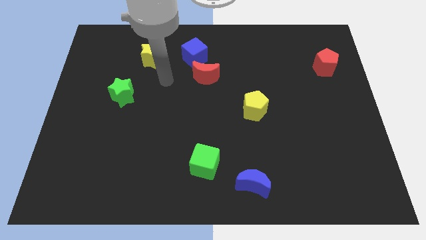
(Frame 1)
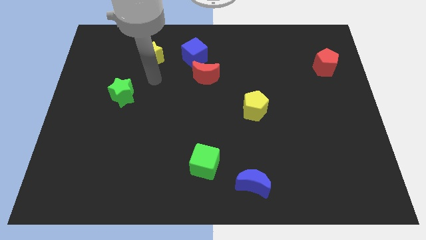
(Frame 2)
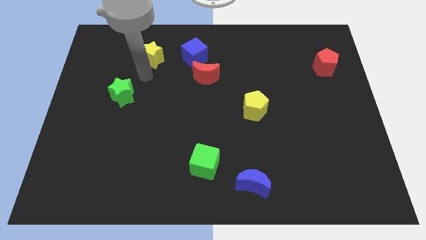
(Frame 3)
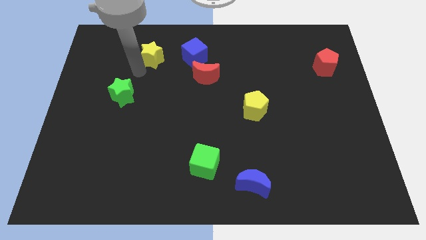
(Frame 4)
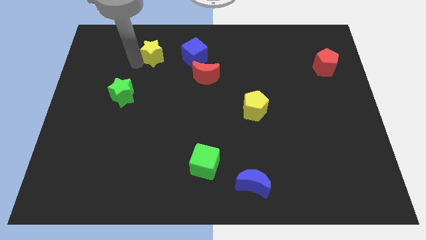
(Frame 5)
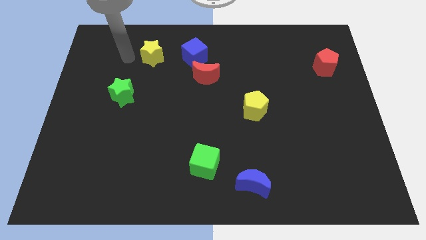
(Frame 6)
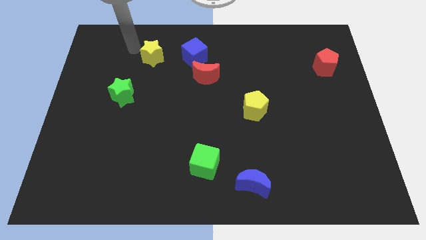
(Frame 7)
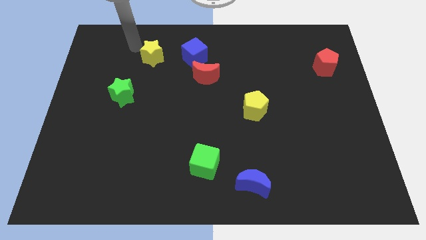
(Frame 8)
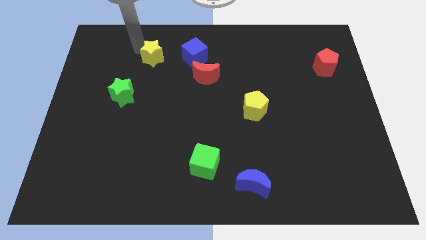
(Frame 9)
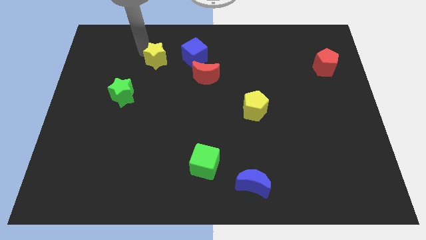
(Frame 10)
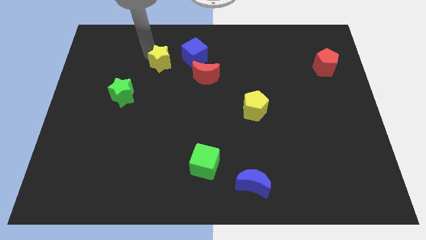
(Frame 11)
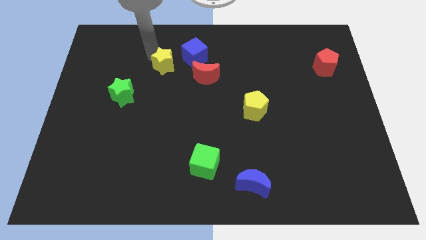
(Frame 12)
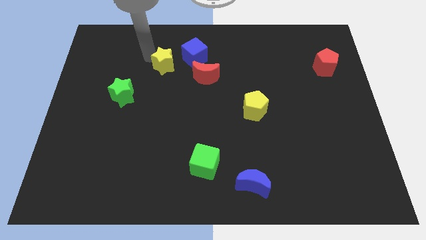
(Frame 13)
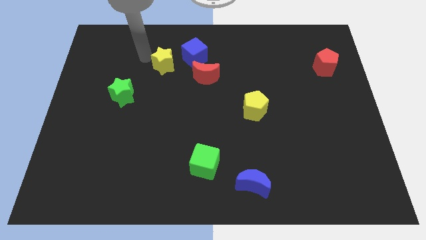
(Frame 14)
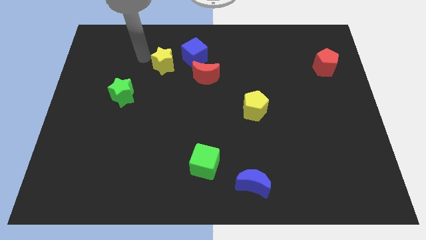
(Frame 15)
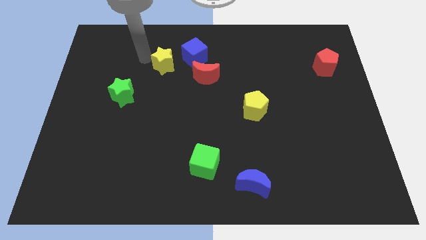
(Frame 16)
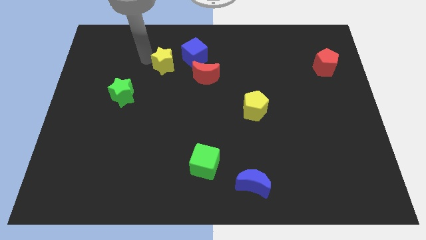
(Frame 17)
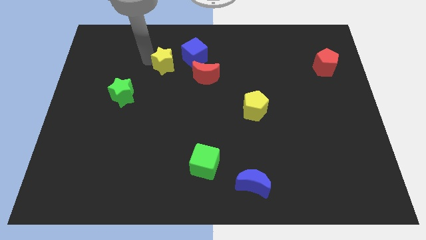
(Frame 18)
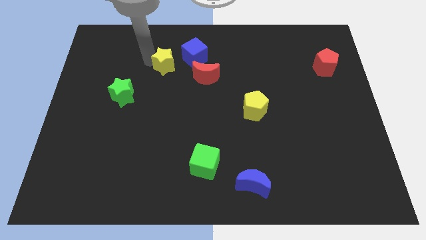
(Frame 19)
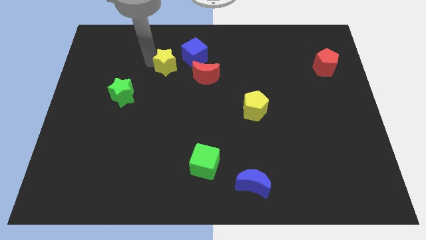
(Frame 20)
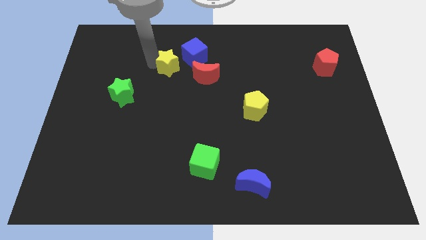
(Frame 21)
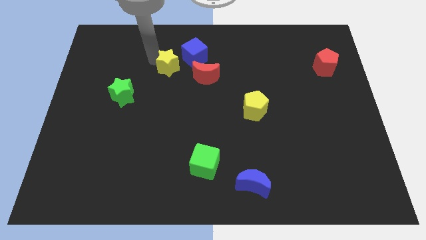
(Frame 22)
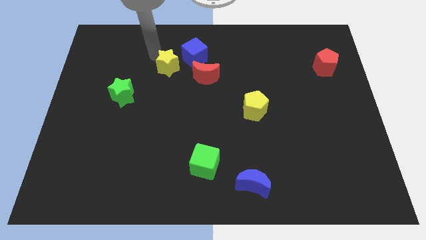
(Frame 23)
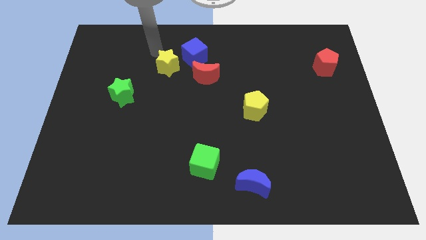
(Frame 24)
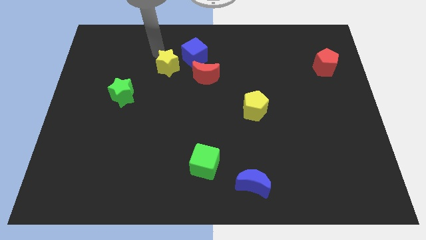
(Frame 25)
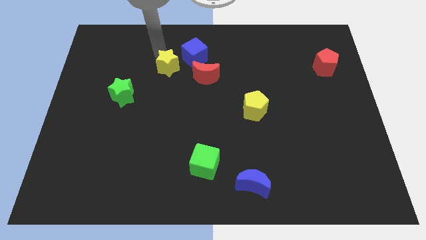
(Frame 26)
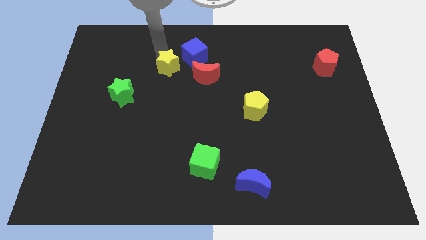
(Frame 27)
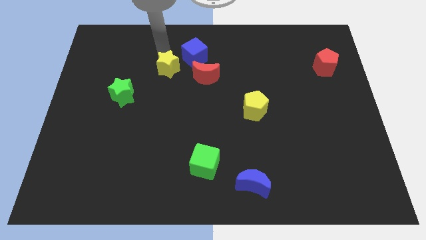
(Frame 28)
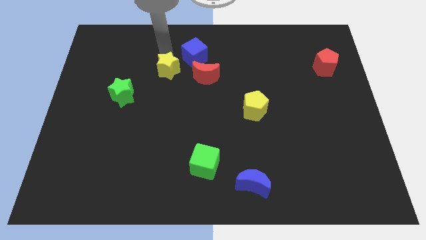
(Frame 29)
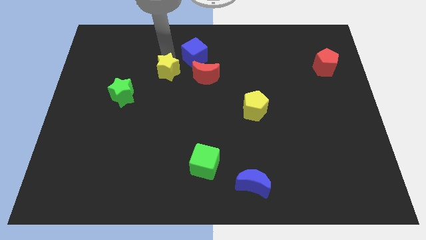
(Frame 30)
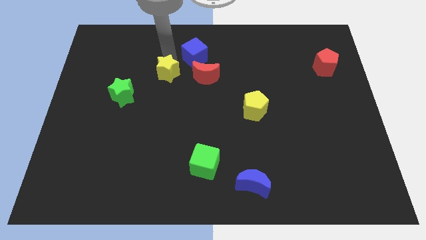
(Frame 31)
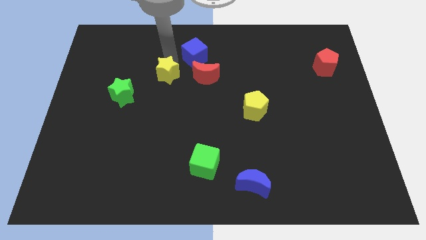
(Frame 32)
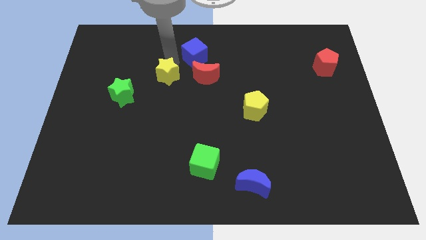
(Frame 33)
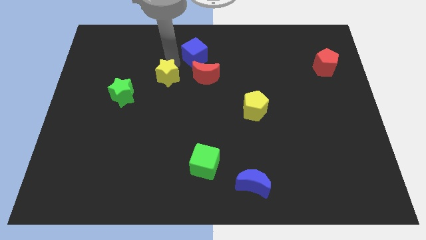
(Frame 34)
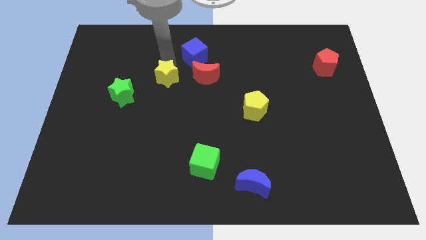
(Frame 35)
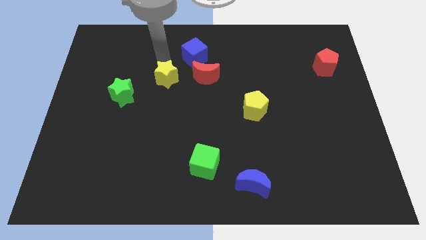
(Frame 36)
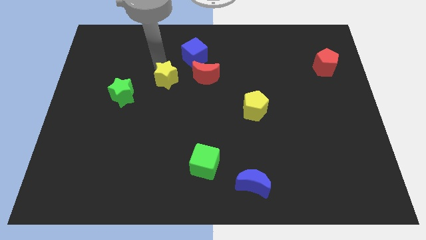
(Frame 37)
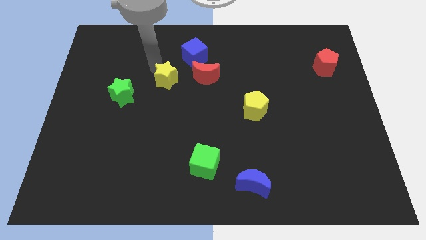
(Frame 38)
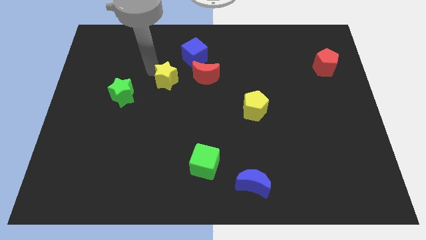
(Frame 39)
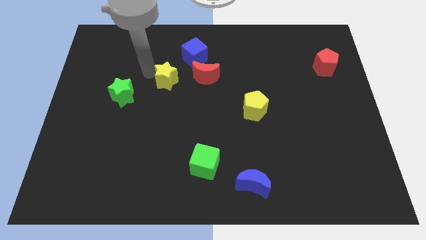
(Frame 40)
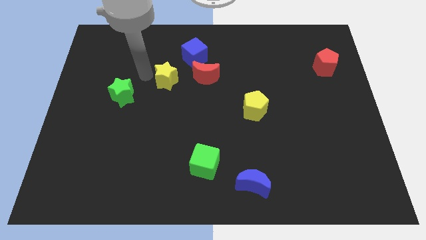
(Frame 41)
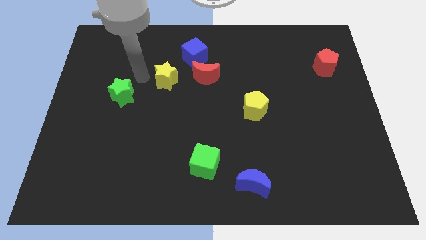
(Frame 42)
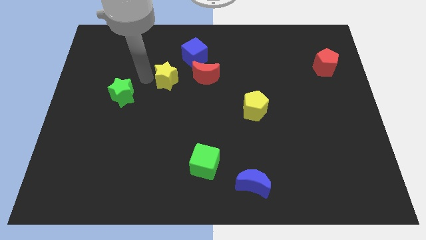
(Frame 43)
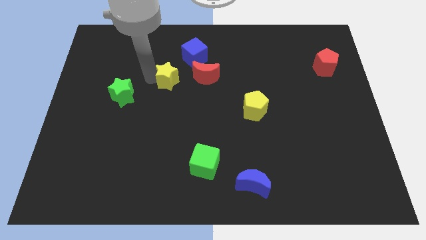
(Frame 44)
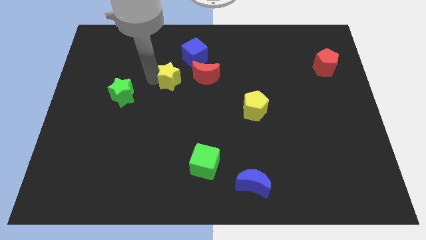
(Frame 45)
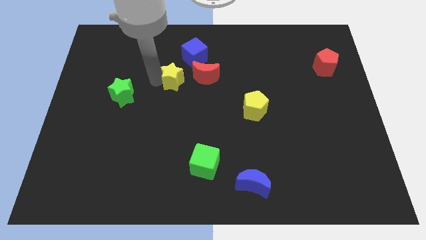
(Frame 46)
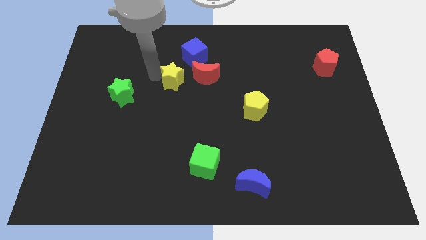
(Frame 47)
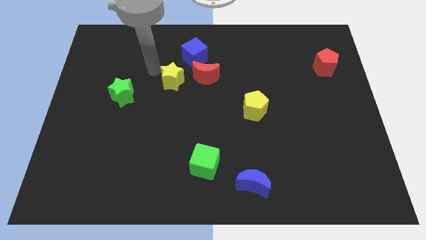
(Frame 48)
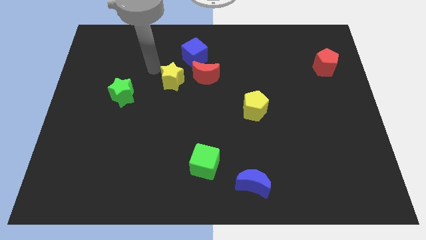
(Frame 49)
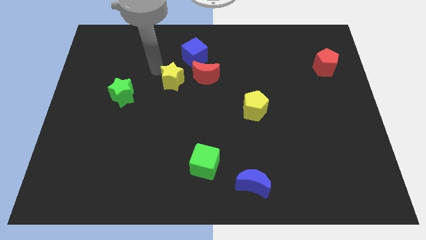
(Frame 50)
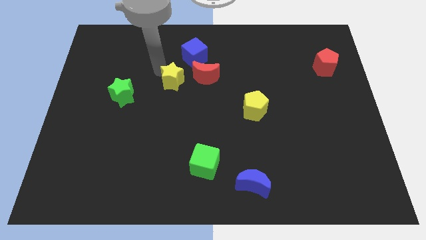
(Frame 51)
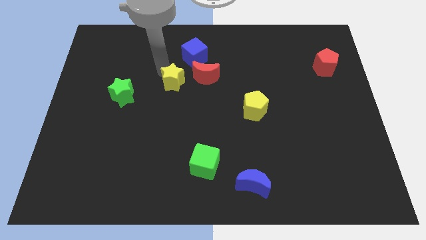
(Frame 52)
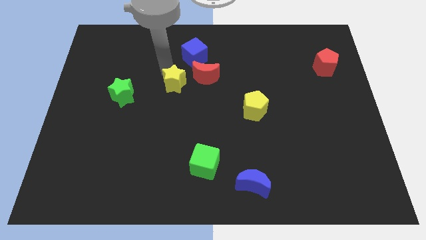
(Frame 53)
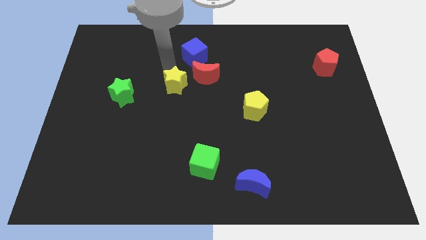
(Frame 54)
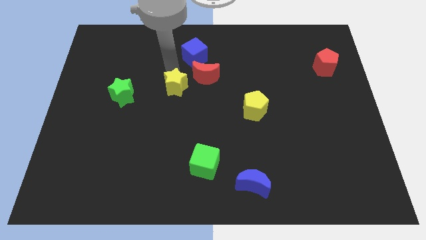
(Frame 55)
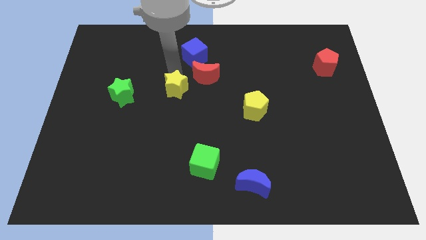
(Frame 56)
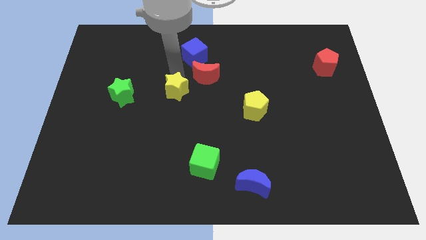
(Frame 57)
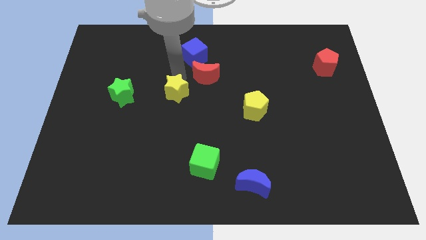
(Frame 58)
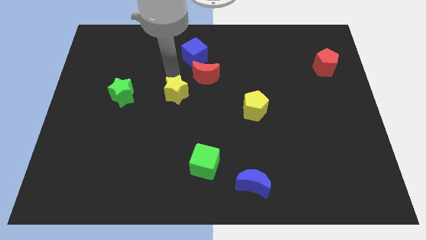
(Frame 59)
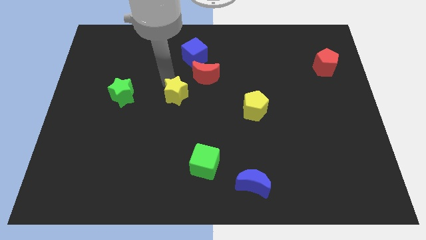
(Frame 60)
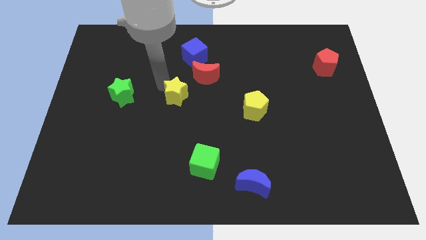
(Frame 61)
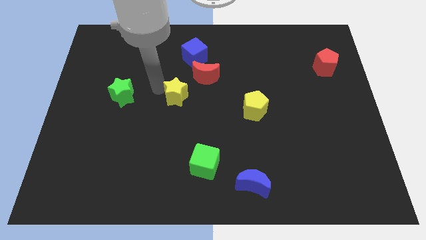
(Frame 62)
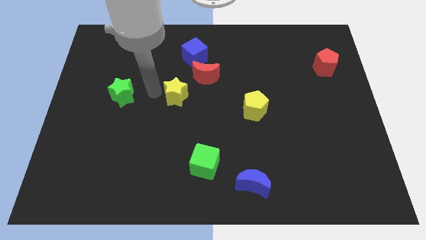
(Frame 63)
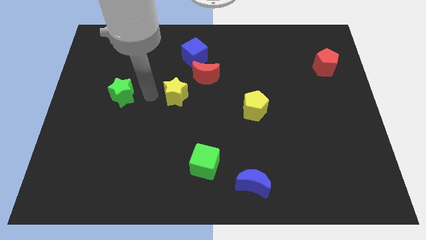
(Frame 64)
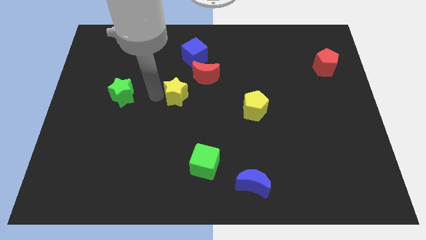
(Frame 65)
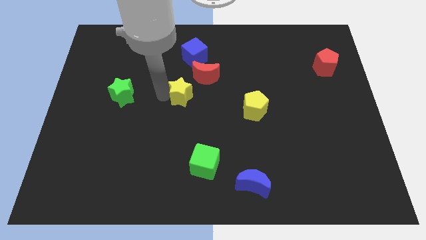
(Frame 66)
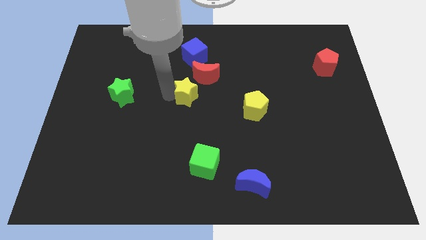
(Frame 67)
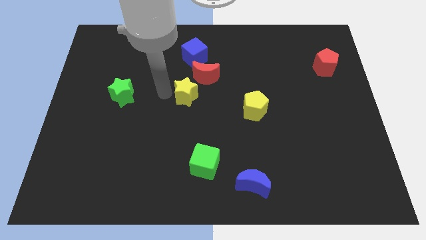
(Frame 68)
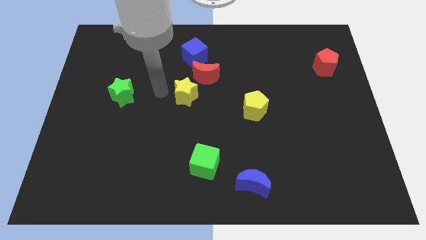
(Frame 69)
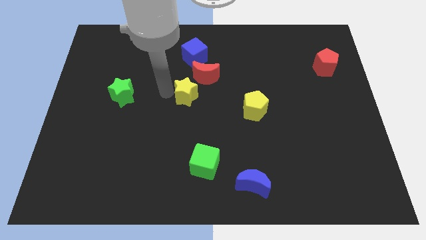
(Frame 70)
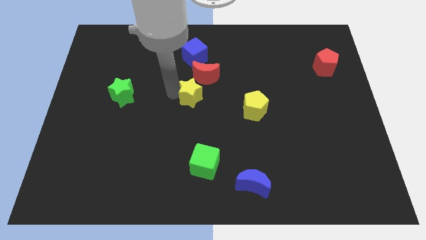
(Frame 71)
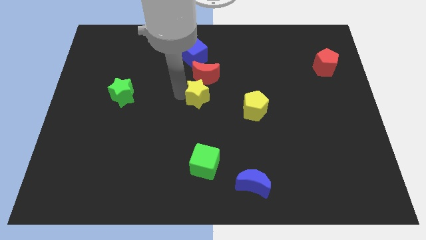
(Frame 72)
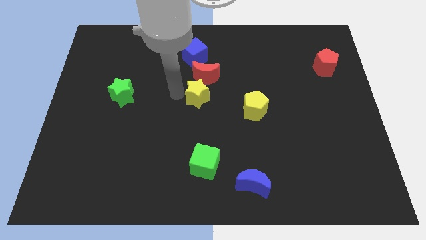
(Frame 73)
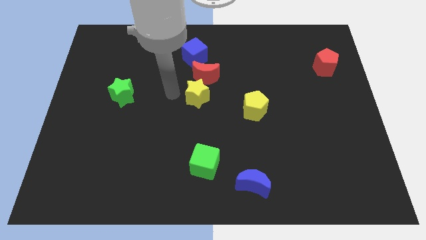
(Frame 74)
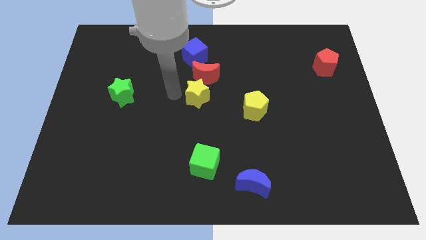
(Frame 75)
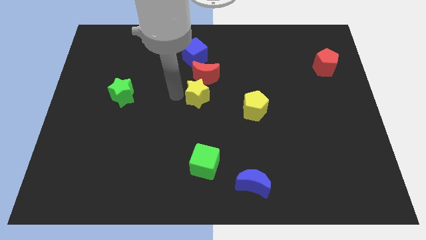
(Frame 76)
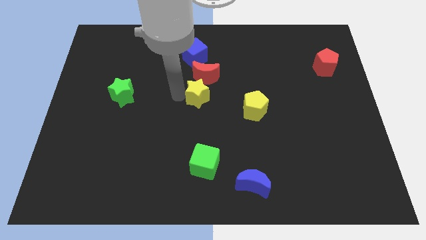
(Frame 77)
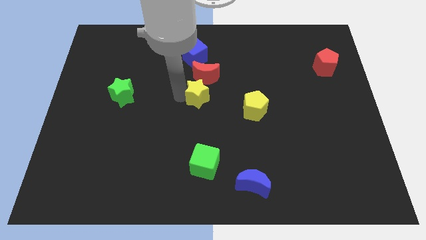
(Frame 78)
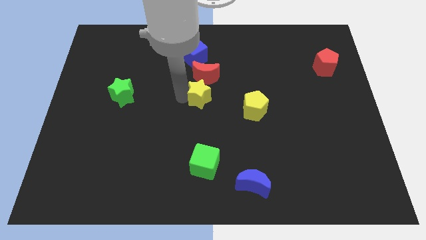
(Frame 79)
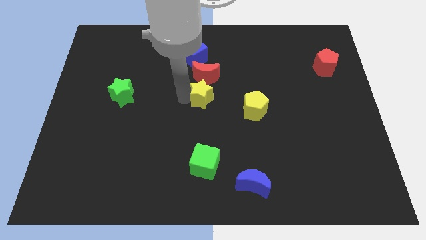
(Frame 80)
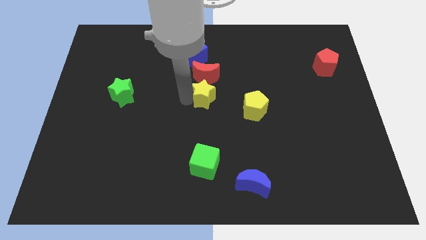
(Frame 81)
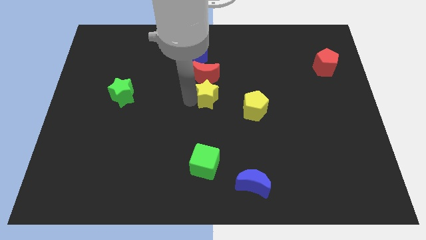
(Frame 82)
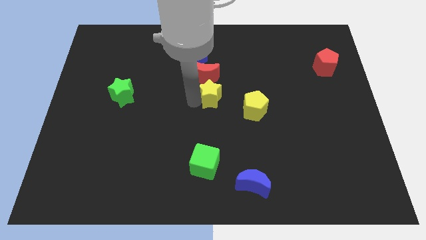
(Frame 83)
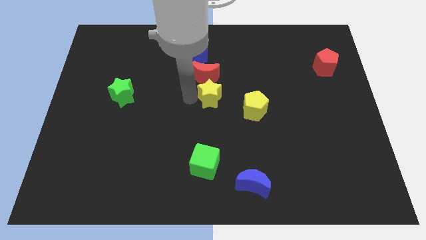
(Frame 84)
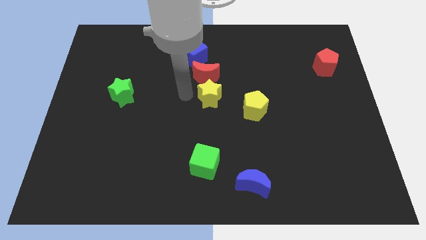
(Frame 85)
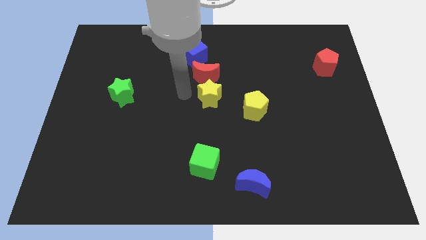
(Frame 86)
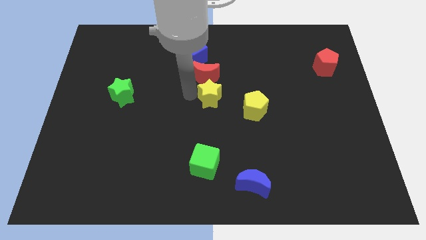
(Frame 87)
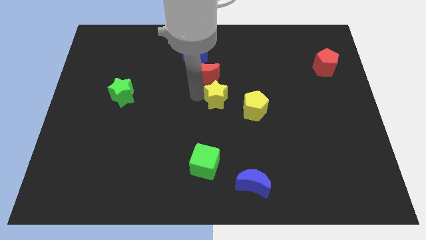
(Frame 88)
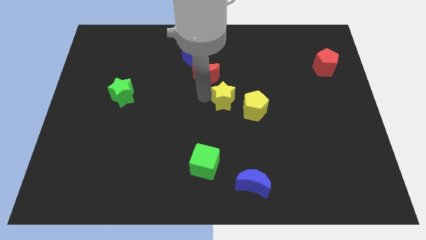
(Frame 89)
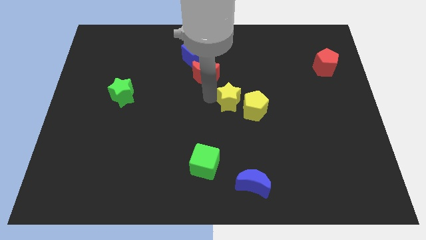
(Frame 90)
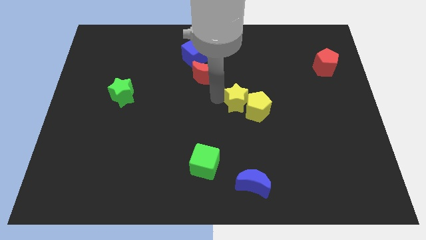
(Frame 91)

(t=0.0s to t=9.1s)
move the yellow star towards the yellow pentagon
